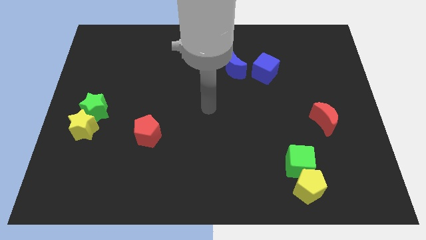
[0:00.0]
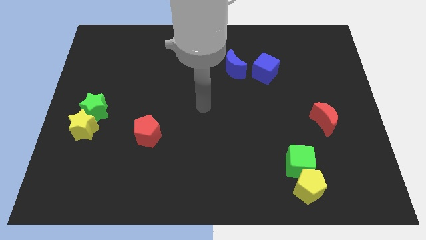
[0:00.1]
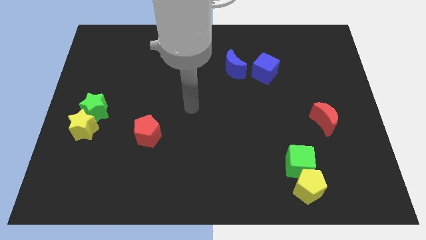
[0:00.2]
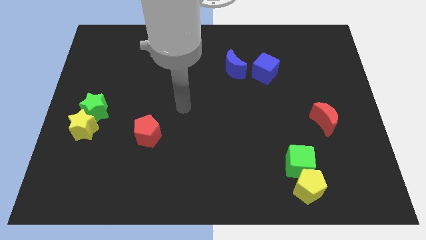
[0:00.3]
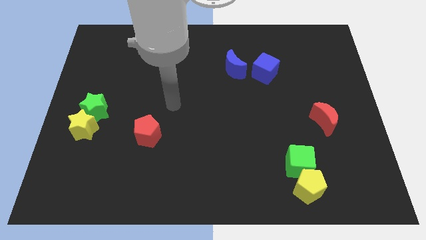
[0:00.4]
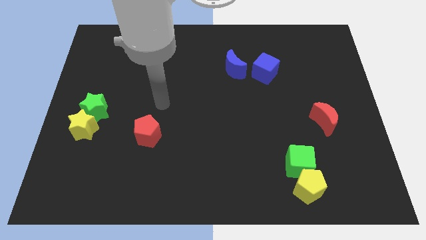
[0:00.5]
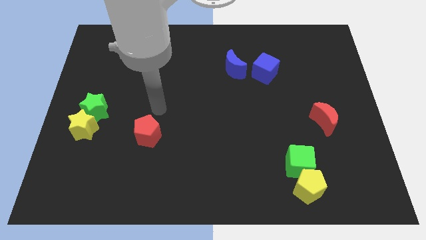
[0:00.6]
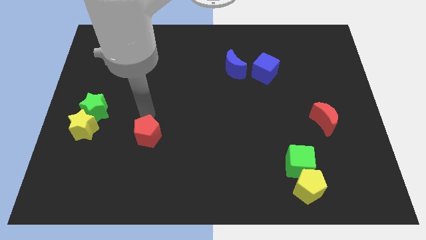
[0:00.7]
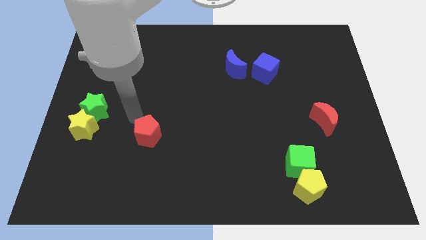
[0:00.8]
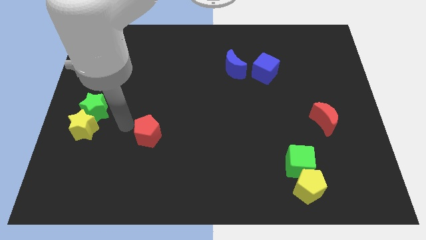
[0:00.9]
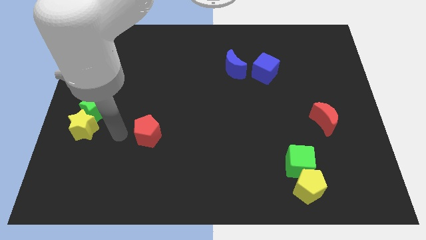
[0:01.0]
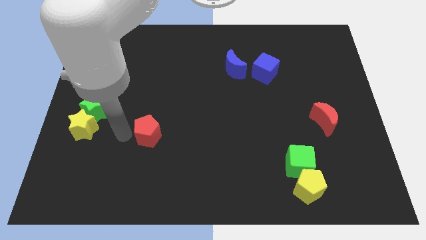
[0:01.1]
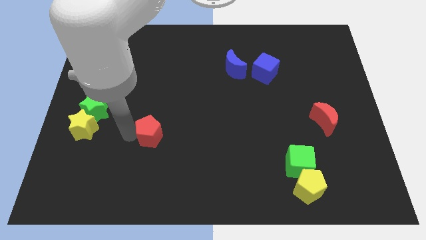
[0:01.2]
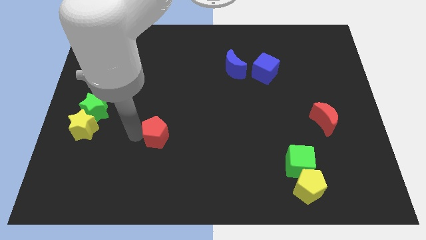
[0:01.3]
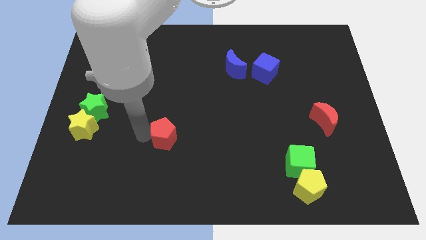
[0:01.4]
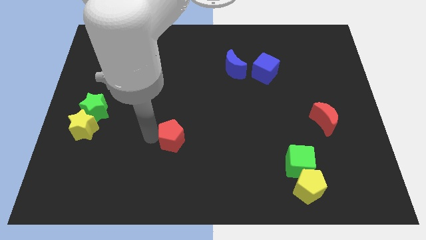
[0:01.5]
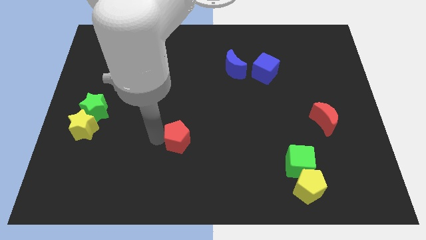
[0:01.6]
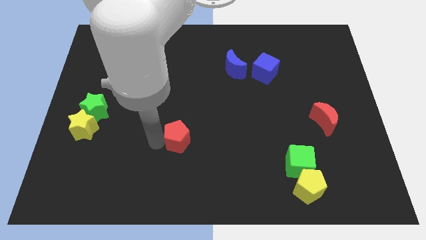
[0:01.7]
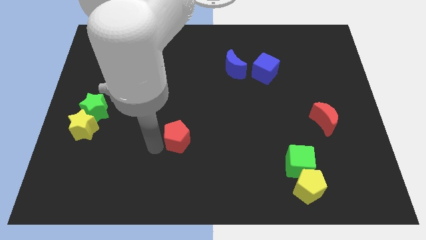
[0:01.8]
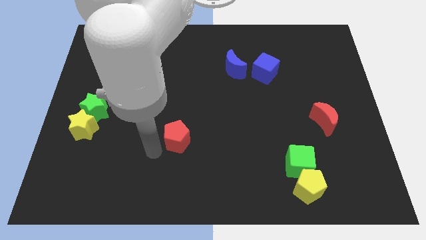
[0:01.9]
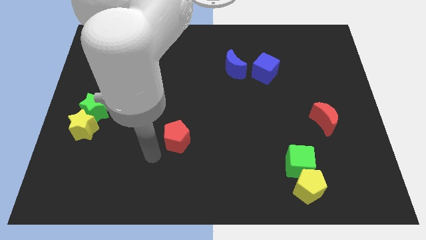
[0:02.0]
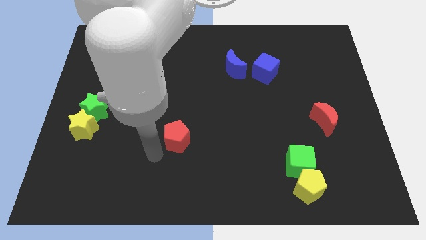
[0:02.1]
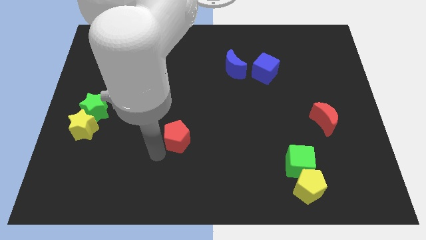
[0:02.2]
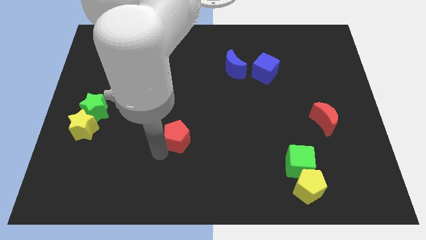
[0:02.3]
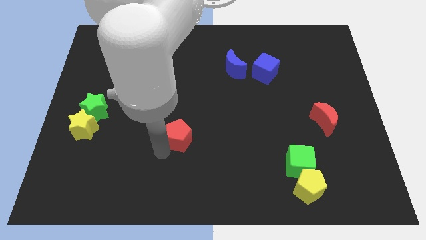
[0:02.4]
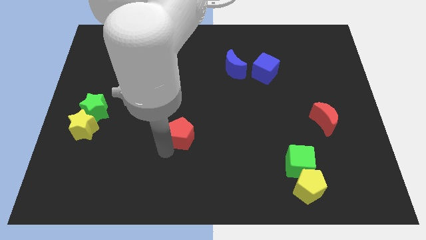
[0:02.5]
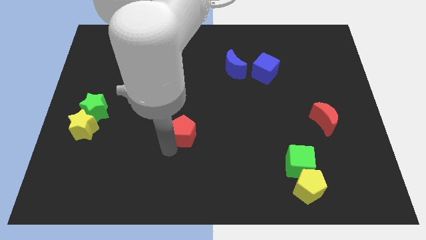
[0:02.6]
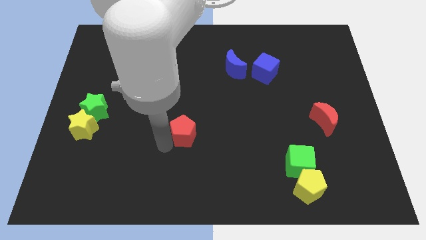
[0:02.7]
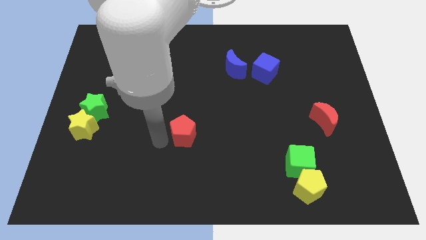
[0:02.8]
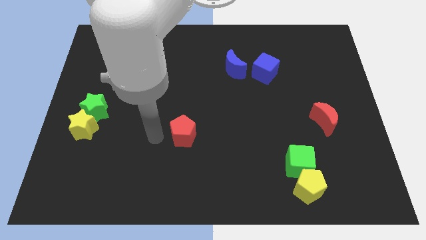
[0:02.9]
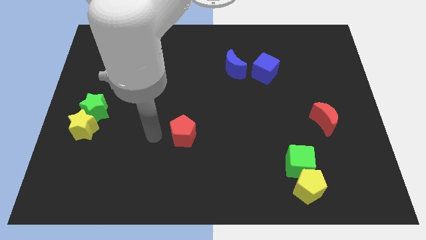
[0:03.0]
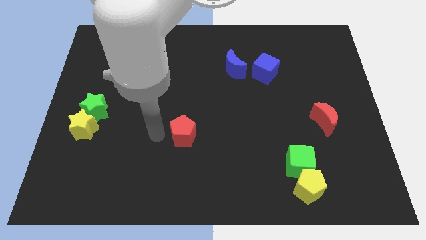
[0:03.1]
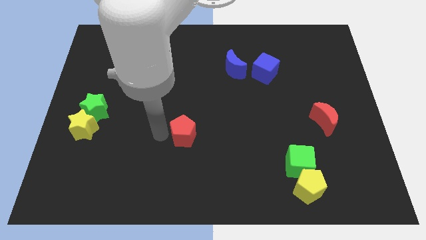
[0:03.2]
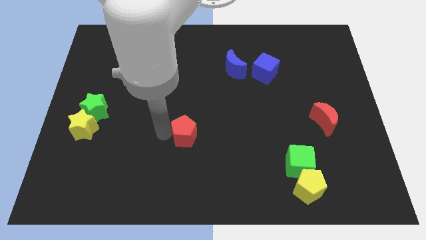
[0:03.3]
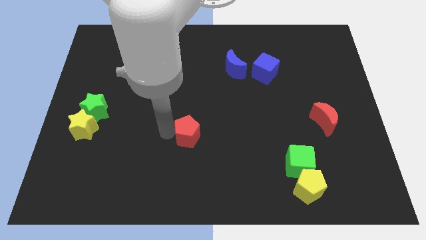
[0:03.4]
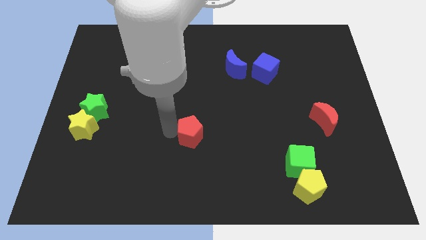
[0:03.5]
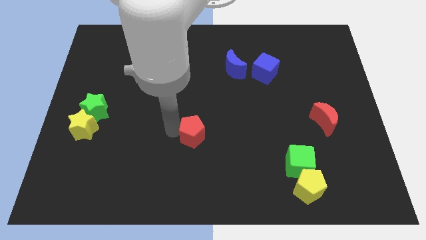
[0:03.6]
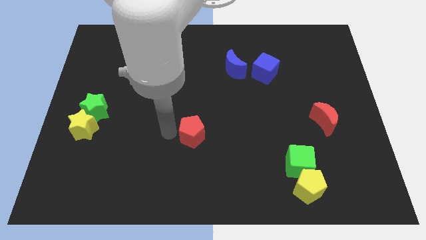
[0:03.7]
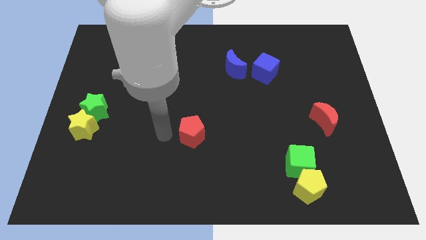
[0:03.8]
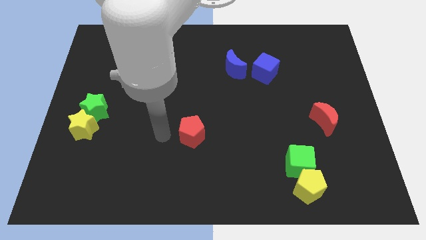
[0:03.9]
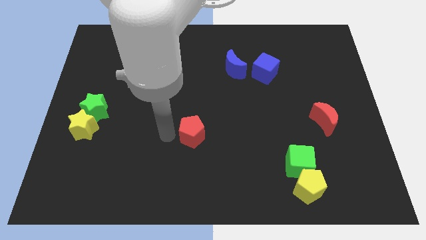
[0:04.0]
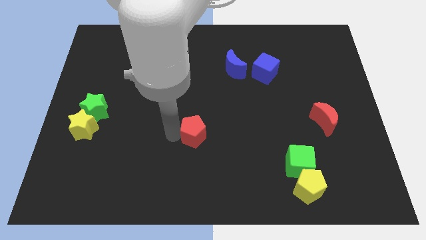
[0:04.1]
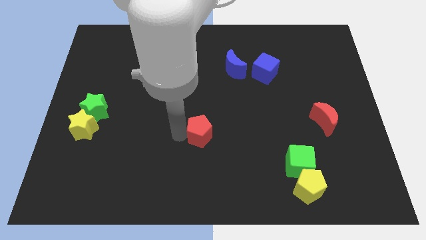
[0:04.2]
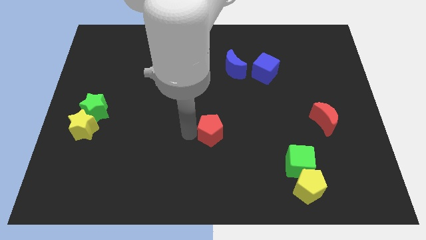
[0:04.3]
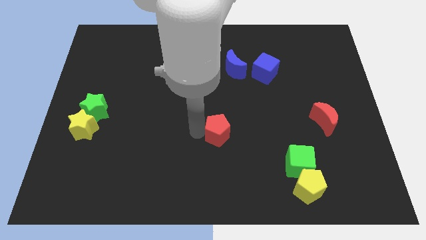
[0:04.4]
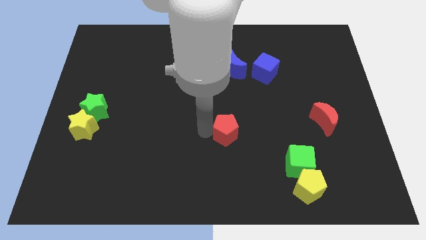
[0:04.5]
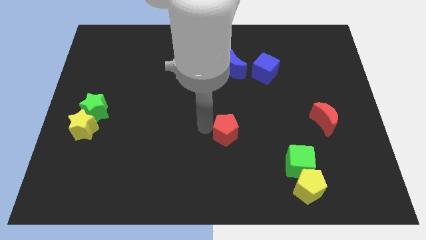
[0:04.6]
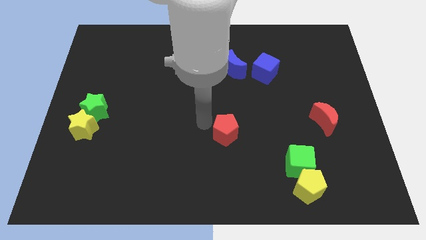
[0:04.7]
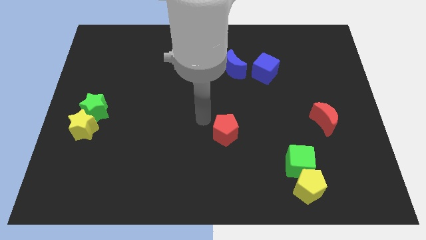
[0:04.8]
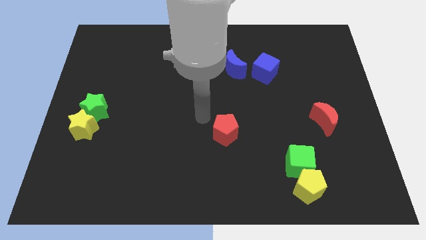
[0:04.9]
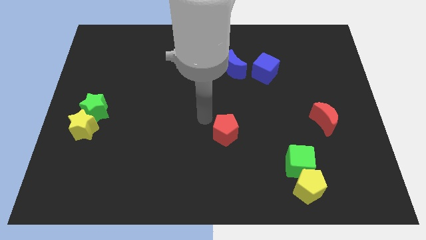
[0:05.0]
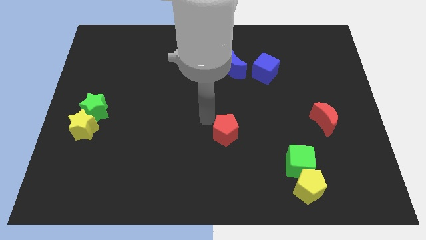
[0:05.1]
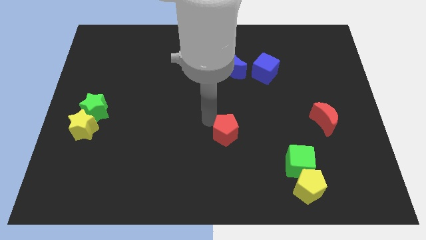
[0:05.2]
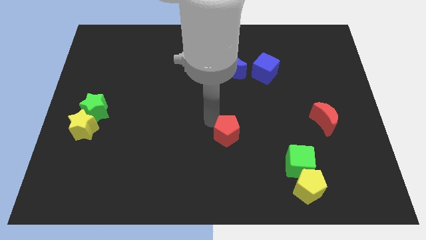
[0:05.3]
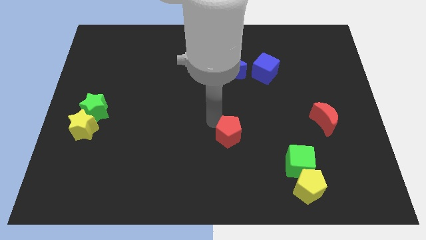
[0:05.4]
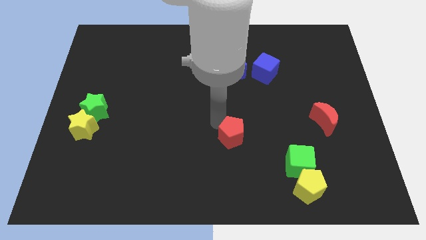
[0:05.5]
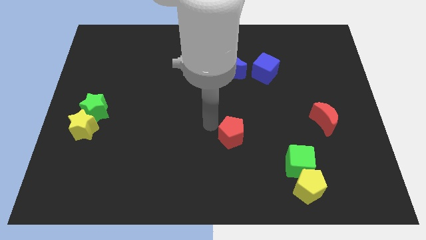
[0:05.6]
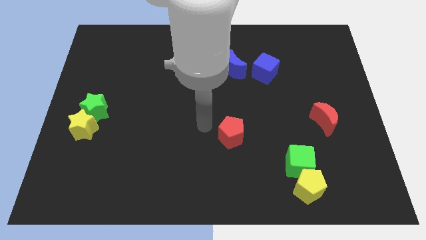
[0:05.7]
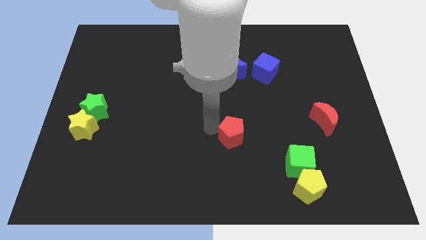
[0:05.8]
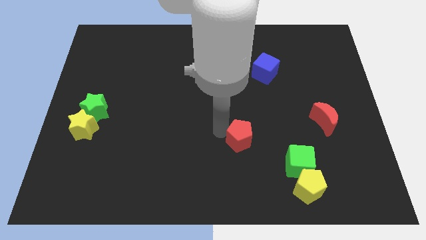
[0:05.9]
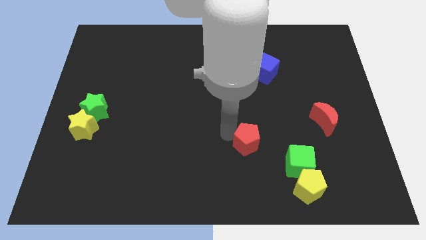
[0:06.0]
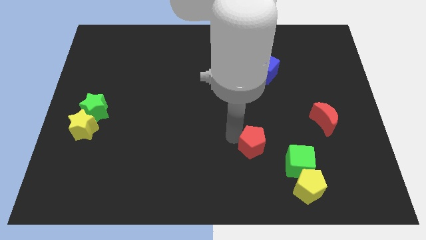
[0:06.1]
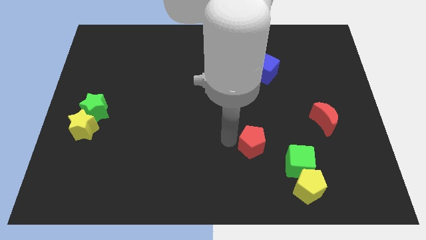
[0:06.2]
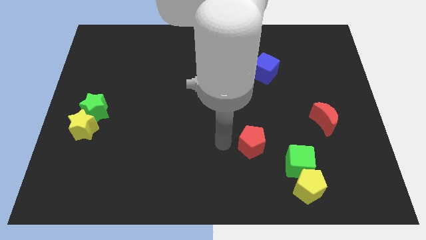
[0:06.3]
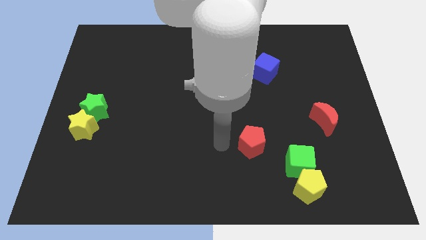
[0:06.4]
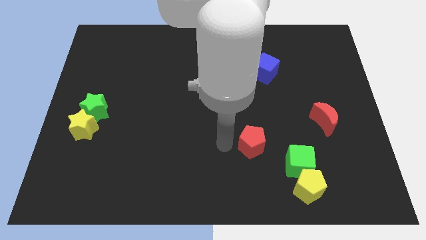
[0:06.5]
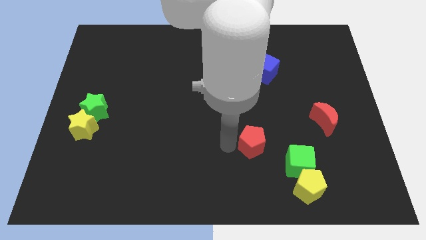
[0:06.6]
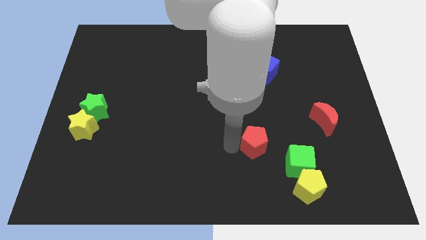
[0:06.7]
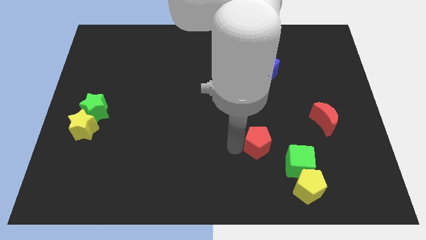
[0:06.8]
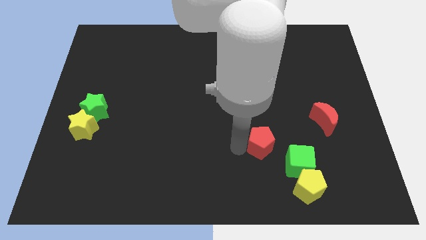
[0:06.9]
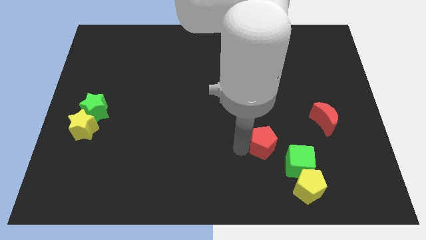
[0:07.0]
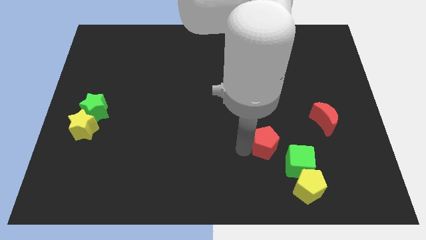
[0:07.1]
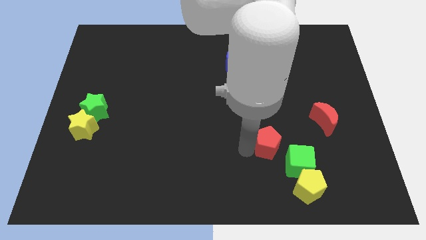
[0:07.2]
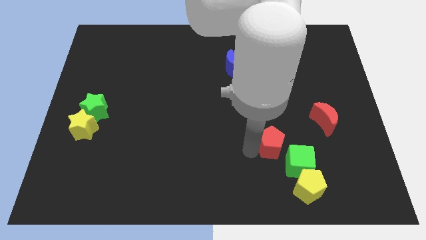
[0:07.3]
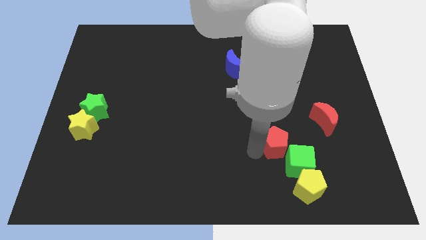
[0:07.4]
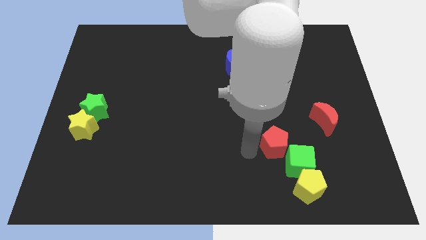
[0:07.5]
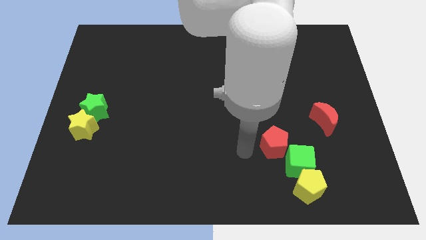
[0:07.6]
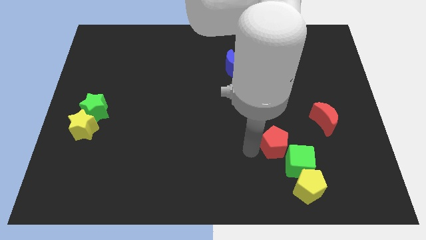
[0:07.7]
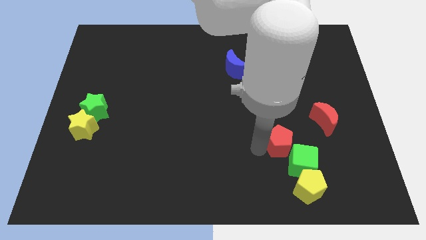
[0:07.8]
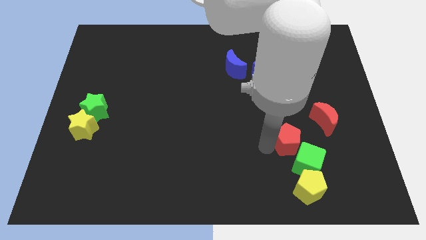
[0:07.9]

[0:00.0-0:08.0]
slide the red pentagon to the bottom left side of the red moon
